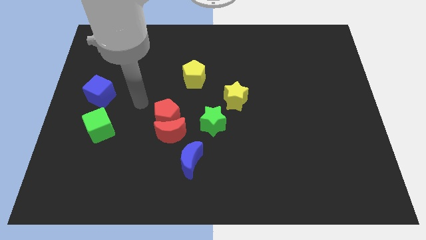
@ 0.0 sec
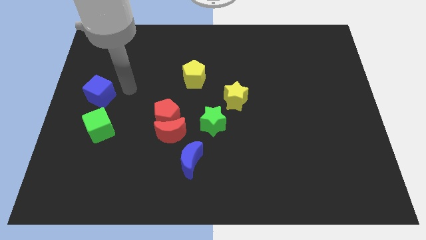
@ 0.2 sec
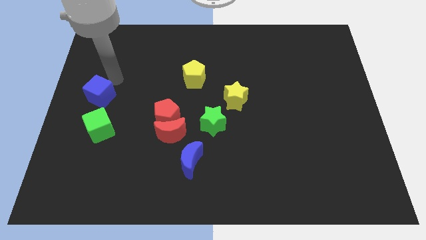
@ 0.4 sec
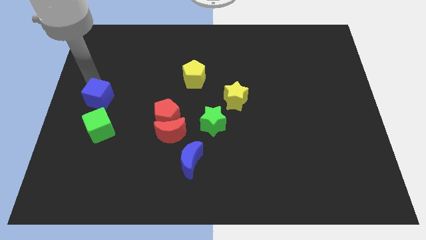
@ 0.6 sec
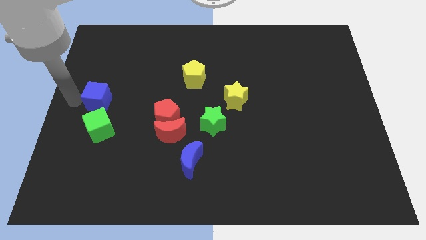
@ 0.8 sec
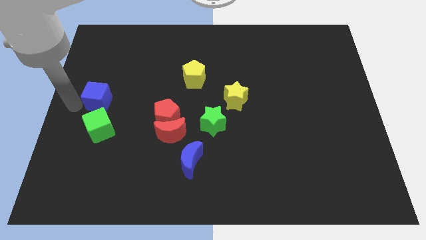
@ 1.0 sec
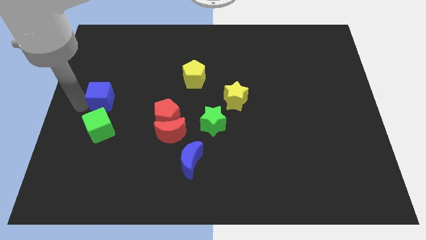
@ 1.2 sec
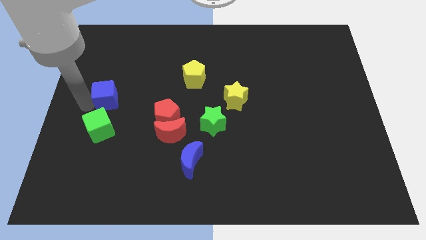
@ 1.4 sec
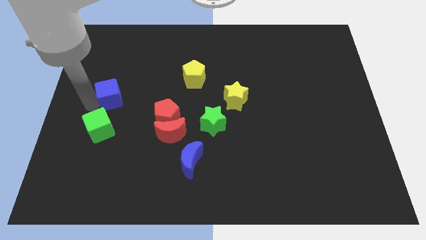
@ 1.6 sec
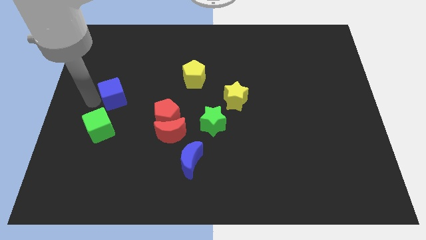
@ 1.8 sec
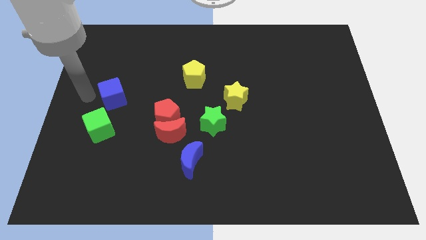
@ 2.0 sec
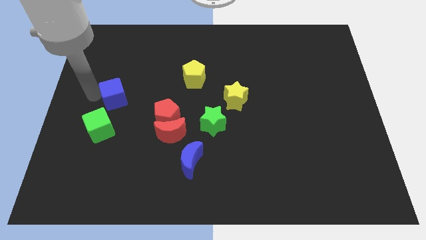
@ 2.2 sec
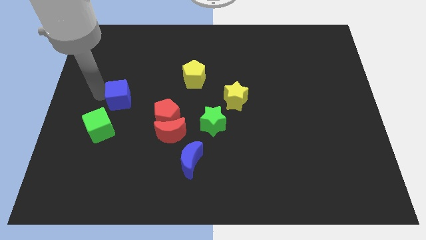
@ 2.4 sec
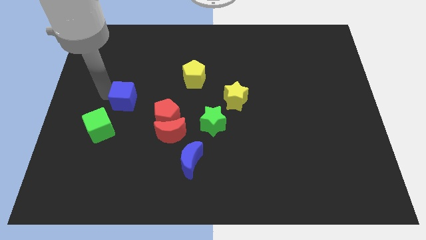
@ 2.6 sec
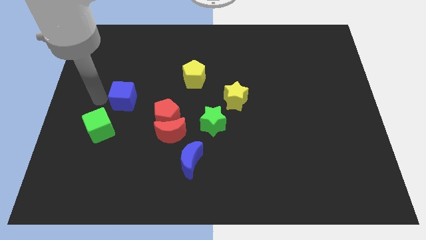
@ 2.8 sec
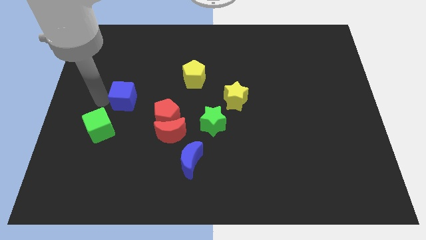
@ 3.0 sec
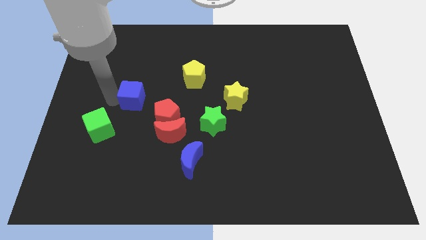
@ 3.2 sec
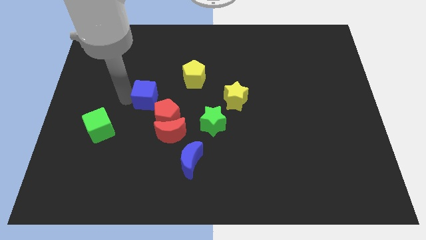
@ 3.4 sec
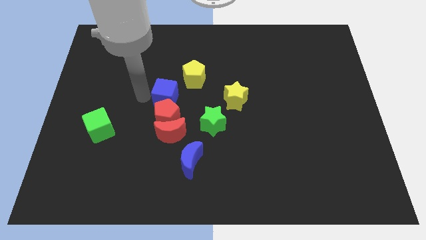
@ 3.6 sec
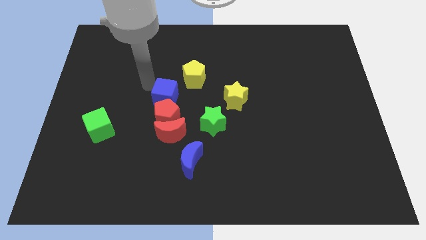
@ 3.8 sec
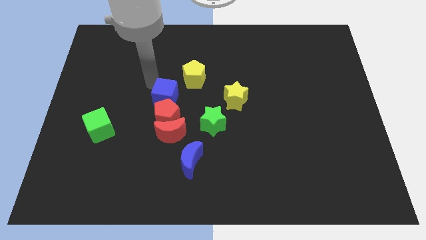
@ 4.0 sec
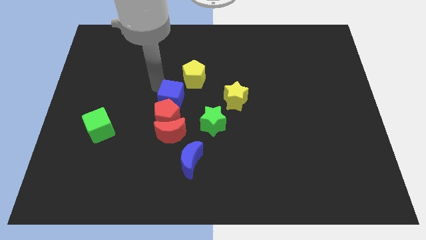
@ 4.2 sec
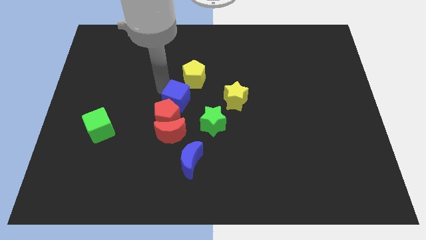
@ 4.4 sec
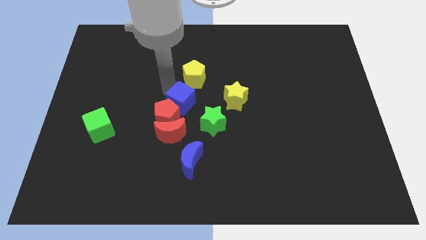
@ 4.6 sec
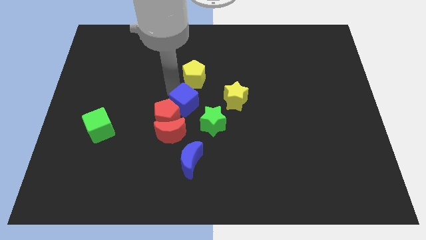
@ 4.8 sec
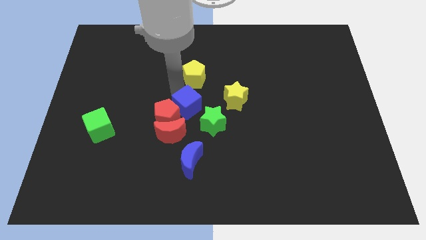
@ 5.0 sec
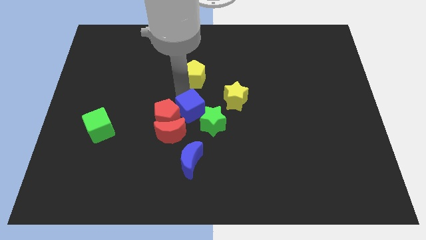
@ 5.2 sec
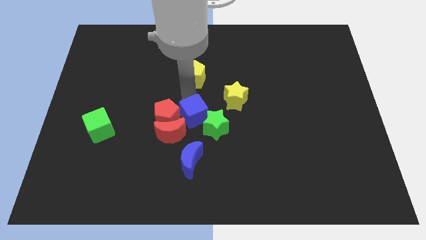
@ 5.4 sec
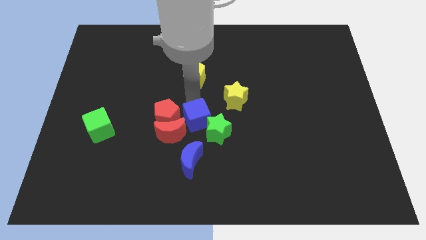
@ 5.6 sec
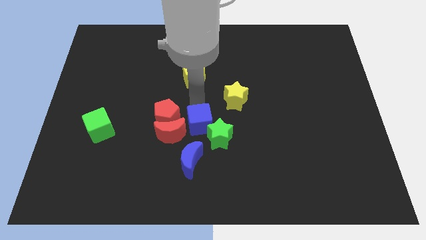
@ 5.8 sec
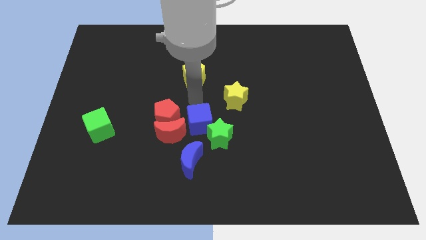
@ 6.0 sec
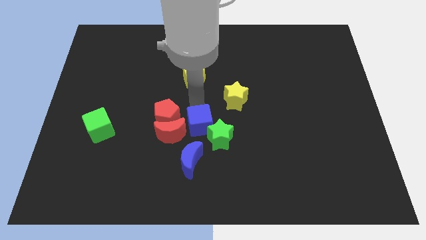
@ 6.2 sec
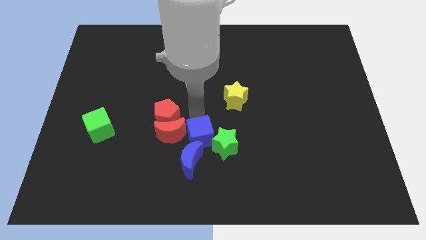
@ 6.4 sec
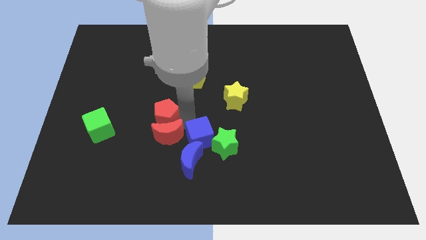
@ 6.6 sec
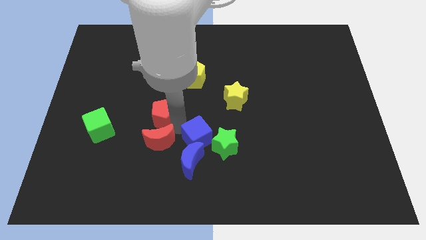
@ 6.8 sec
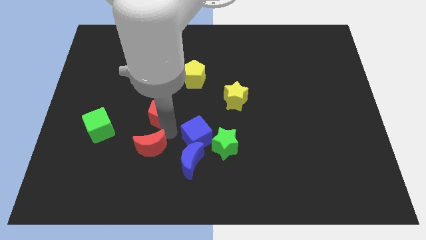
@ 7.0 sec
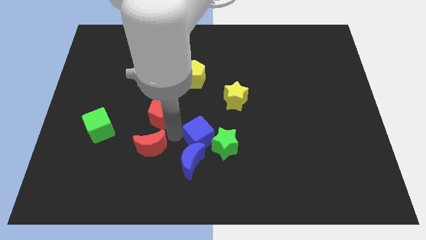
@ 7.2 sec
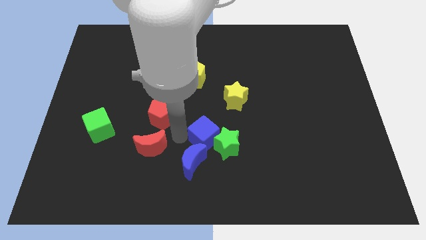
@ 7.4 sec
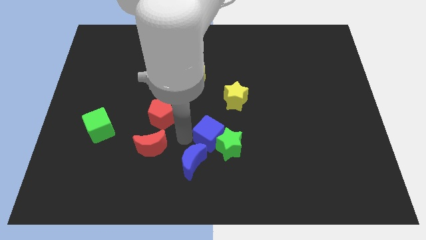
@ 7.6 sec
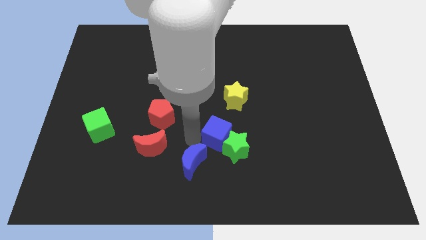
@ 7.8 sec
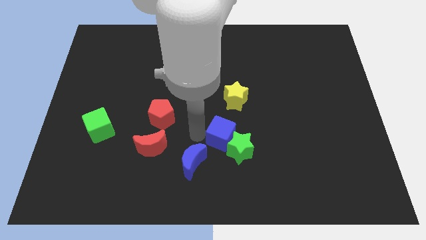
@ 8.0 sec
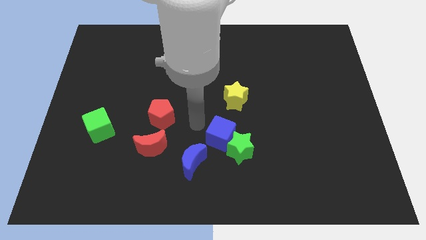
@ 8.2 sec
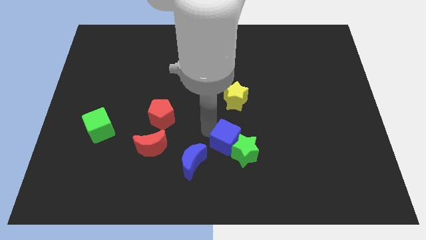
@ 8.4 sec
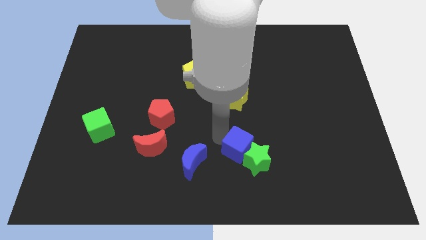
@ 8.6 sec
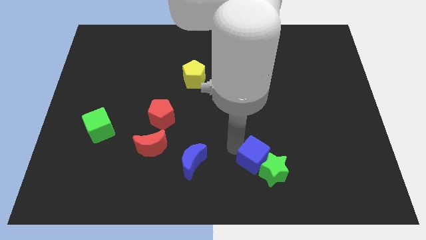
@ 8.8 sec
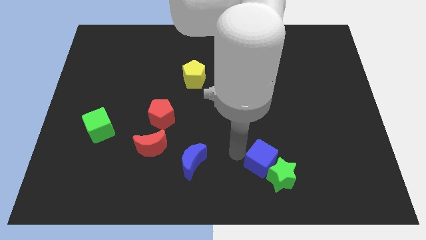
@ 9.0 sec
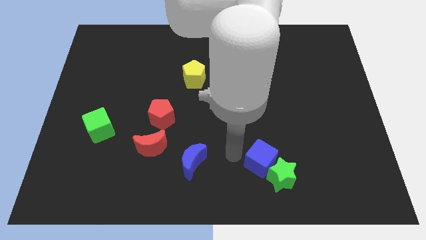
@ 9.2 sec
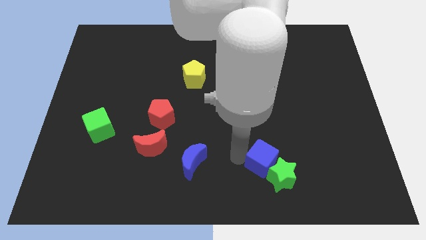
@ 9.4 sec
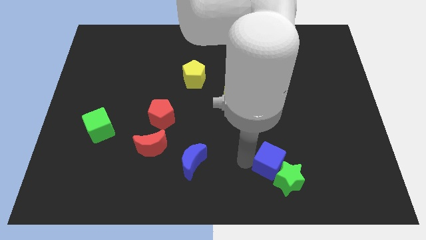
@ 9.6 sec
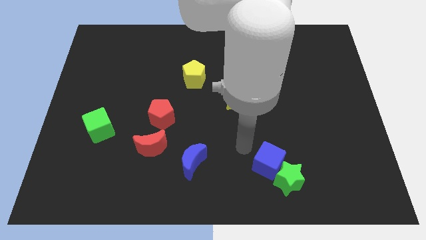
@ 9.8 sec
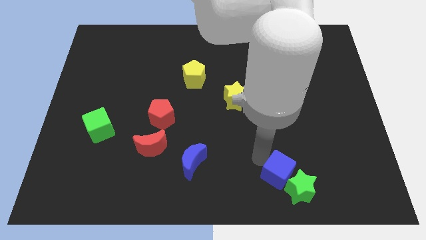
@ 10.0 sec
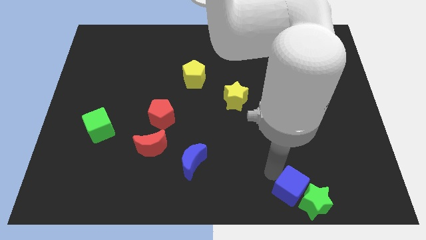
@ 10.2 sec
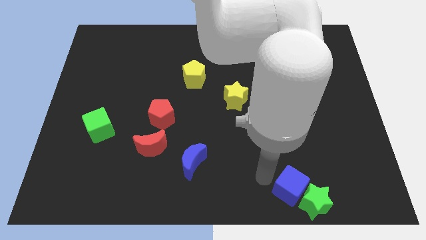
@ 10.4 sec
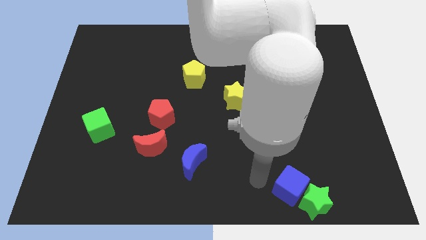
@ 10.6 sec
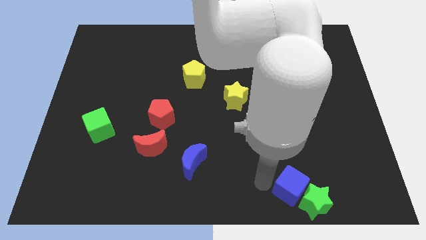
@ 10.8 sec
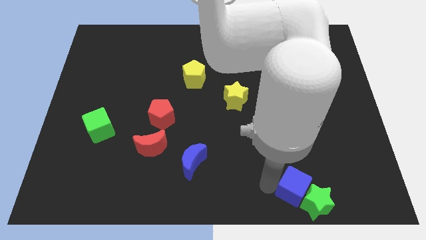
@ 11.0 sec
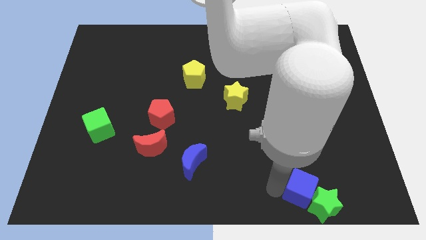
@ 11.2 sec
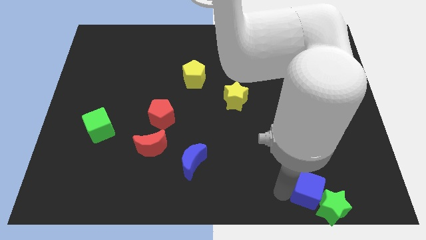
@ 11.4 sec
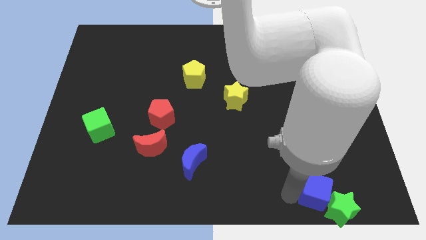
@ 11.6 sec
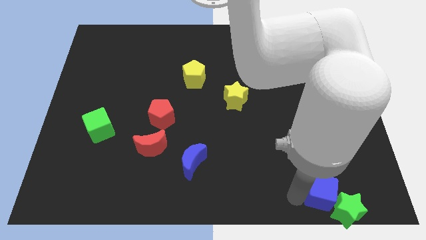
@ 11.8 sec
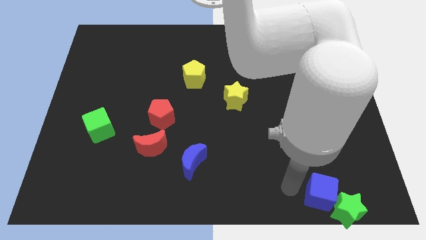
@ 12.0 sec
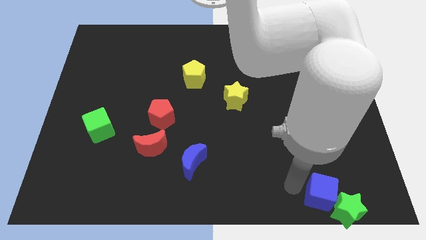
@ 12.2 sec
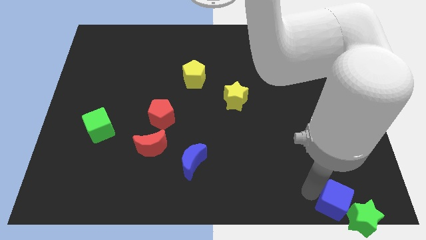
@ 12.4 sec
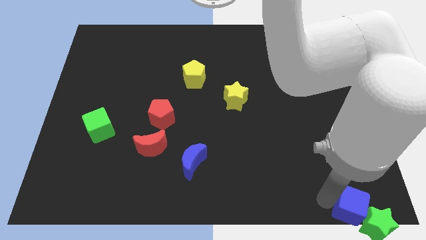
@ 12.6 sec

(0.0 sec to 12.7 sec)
move the blue cube to the bottom right corner
